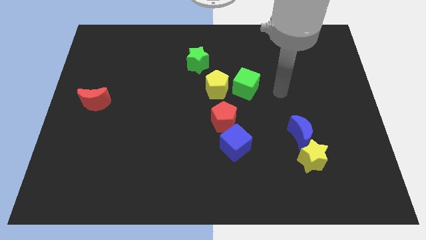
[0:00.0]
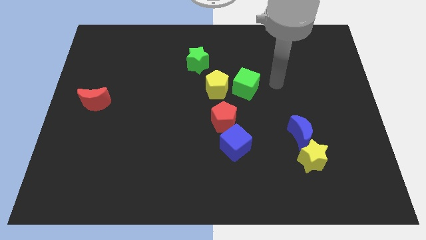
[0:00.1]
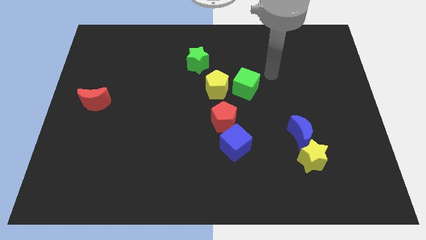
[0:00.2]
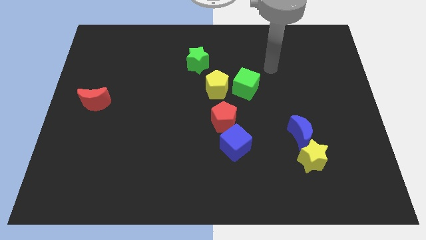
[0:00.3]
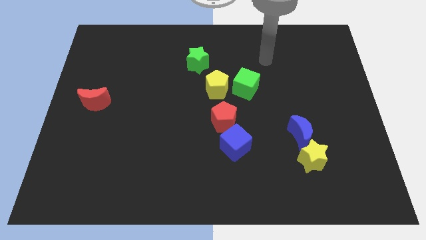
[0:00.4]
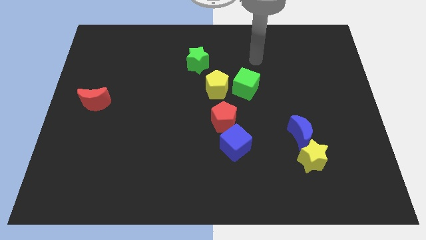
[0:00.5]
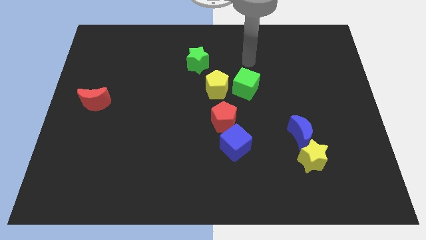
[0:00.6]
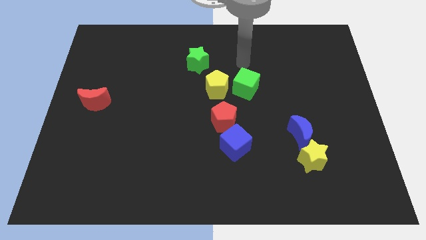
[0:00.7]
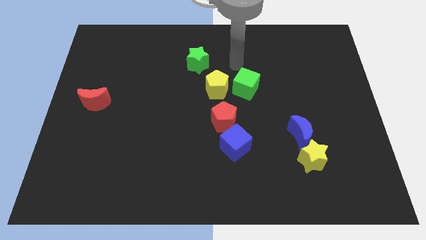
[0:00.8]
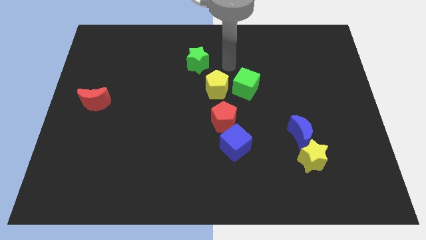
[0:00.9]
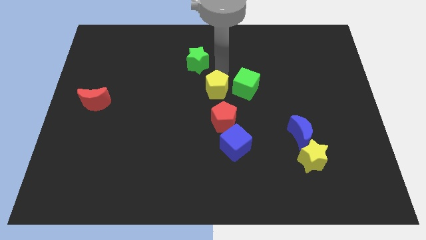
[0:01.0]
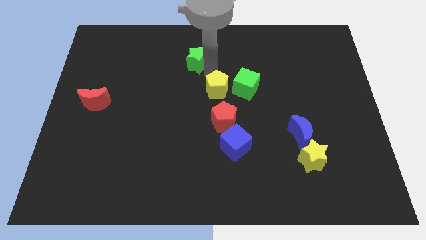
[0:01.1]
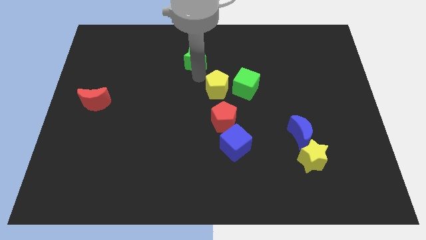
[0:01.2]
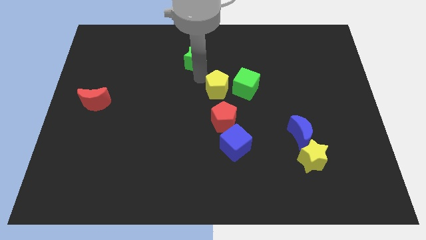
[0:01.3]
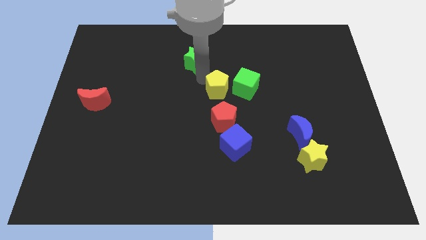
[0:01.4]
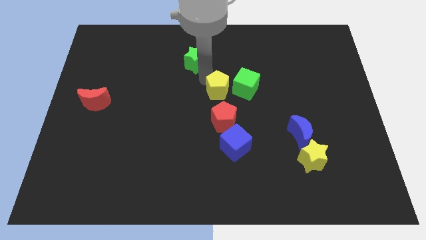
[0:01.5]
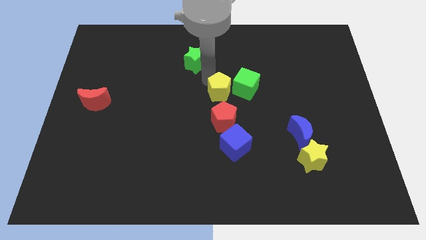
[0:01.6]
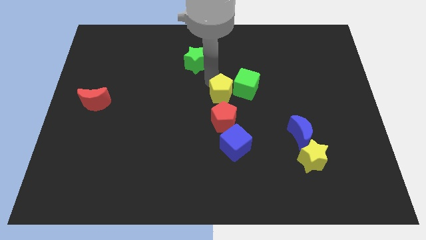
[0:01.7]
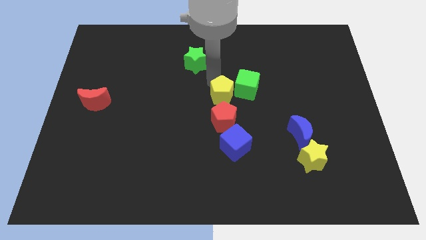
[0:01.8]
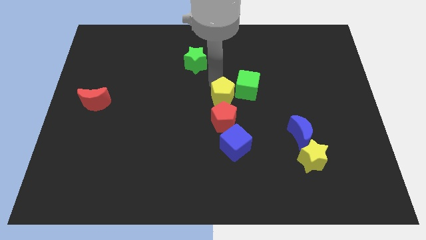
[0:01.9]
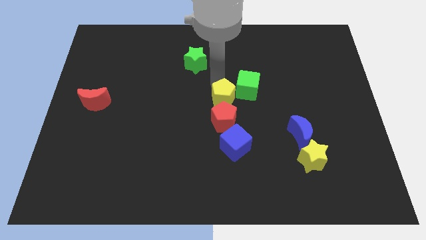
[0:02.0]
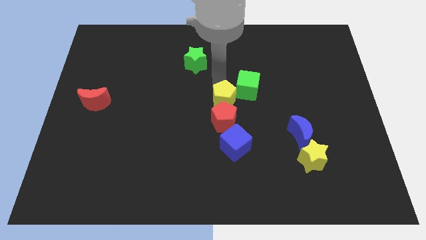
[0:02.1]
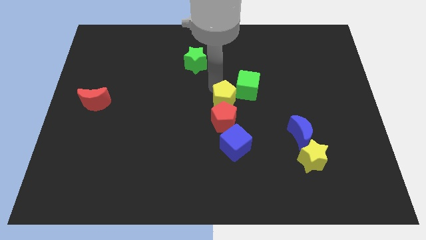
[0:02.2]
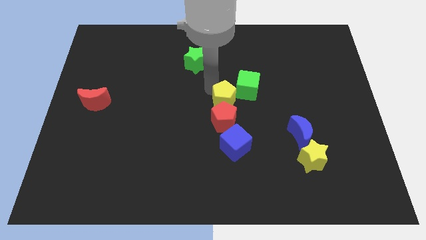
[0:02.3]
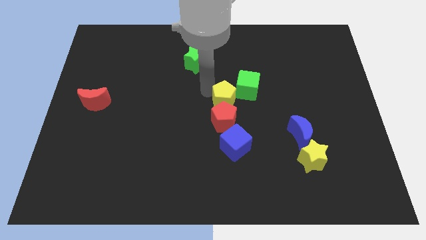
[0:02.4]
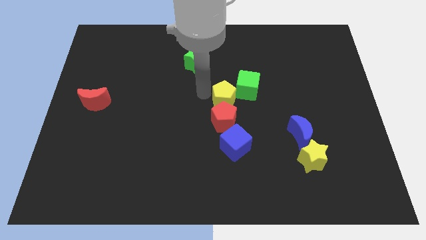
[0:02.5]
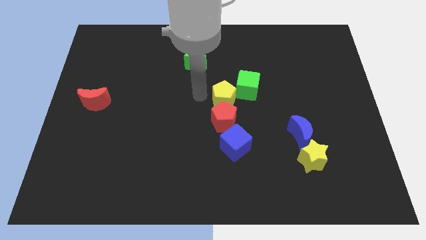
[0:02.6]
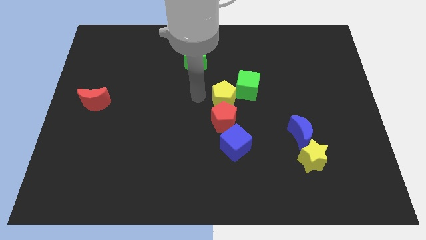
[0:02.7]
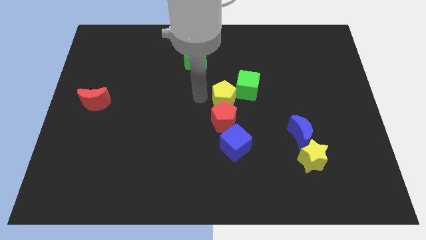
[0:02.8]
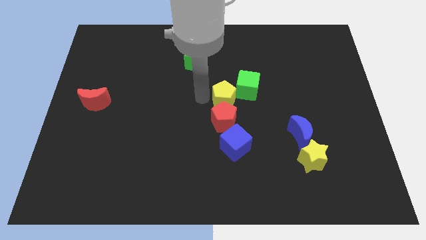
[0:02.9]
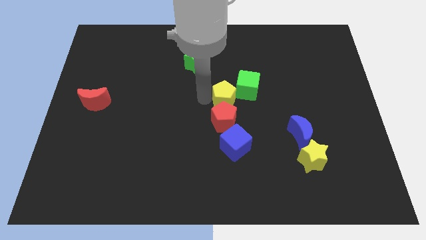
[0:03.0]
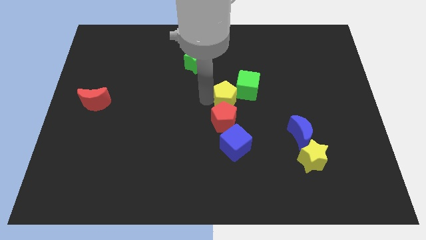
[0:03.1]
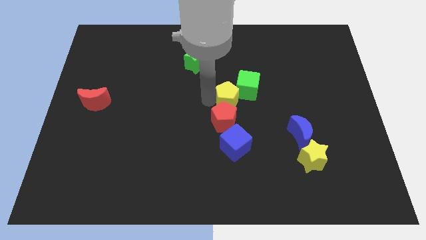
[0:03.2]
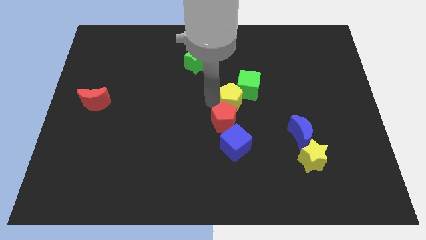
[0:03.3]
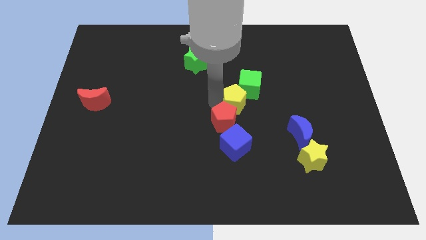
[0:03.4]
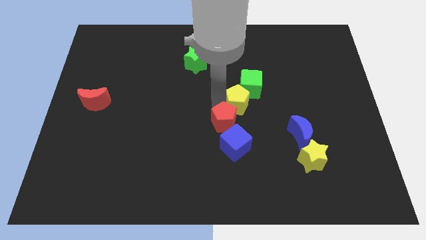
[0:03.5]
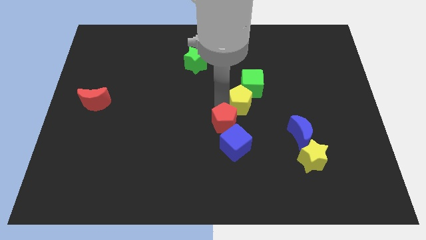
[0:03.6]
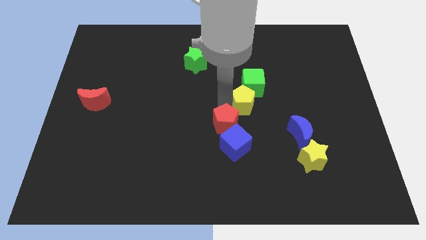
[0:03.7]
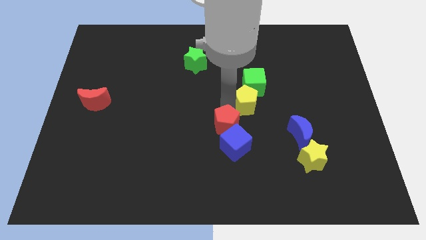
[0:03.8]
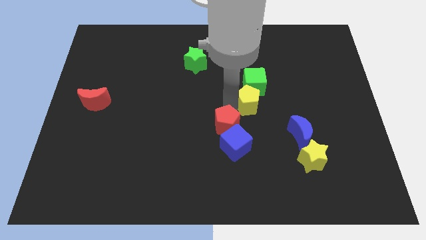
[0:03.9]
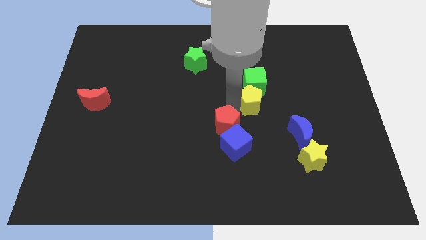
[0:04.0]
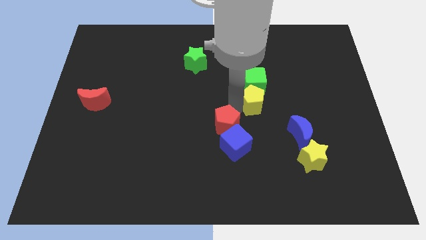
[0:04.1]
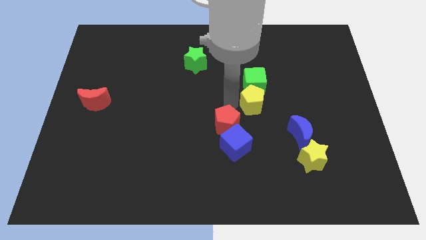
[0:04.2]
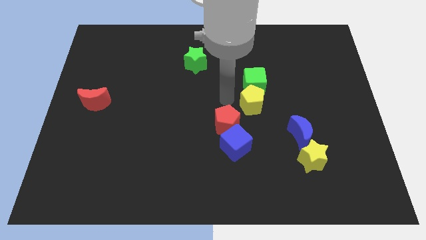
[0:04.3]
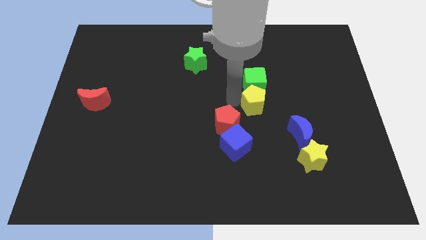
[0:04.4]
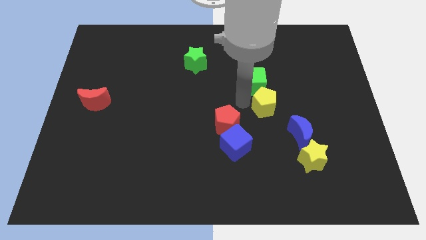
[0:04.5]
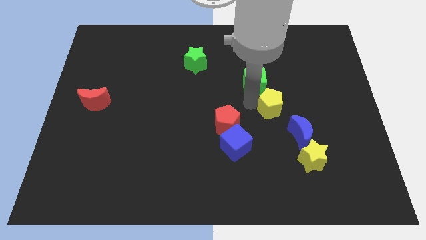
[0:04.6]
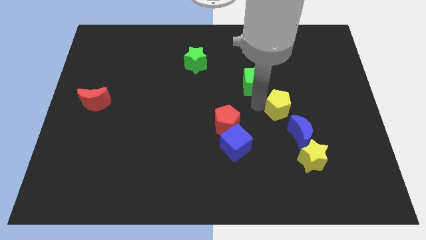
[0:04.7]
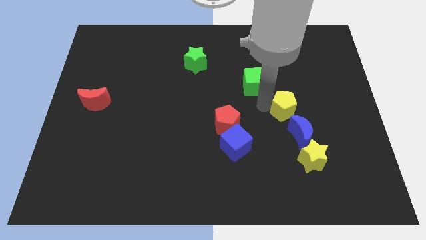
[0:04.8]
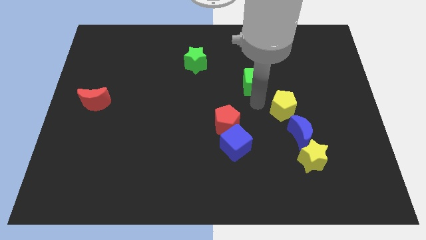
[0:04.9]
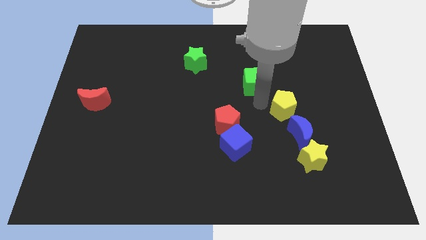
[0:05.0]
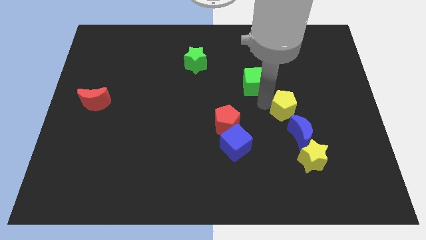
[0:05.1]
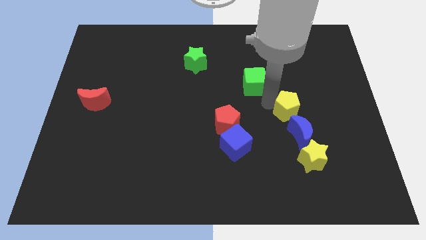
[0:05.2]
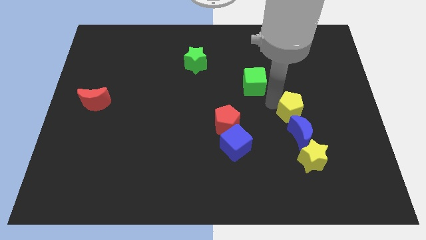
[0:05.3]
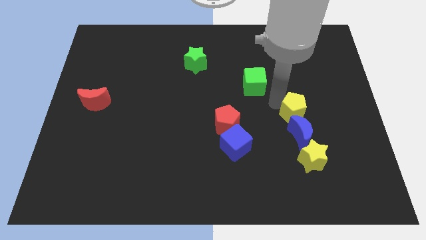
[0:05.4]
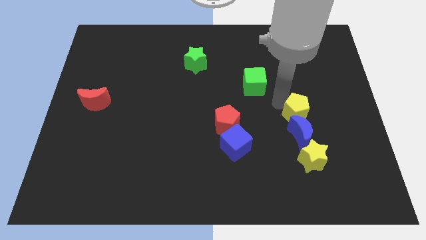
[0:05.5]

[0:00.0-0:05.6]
push the yellow pentagon to the top right of the blue moon
